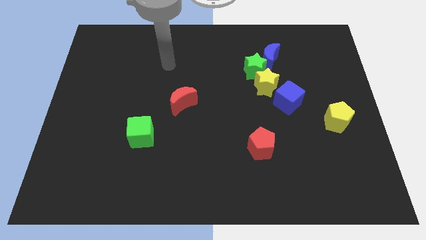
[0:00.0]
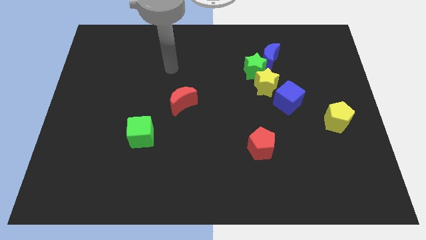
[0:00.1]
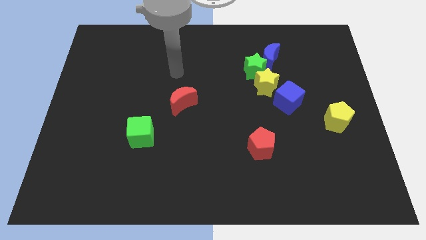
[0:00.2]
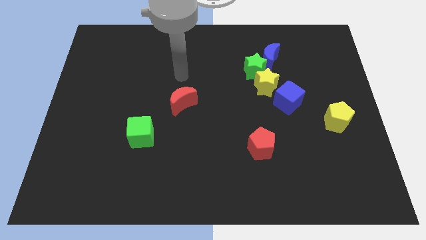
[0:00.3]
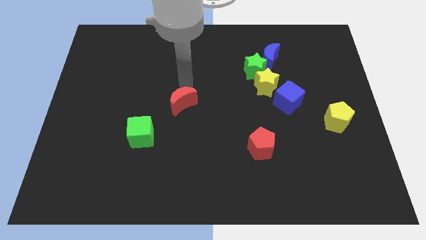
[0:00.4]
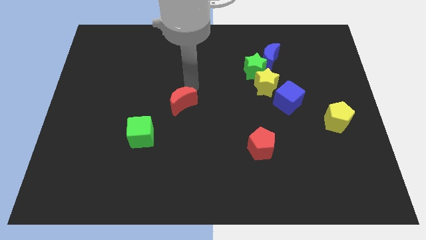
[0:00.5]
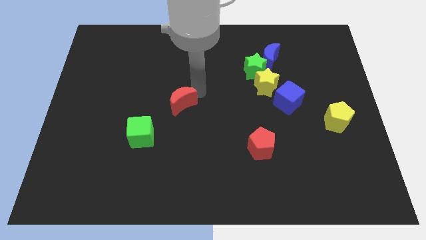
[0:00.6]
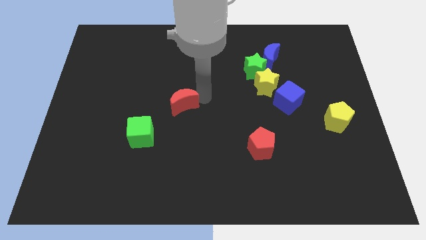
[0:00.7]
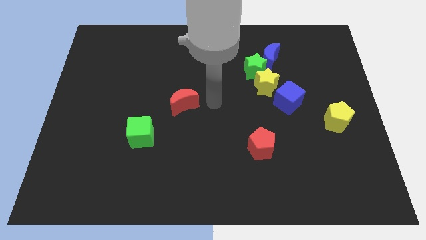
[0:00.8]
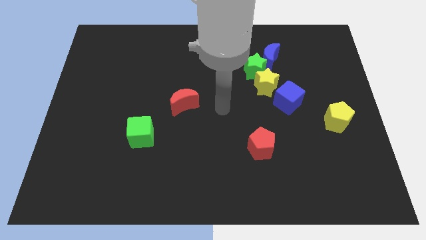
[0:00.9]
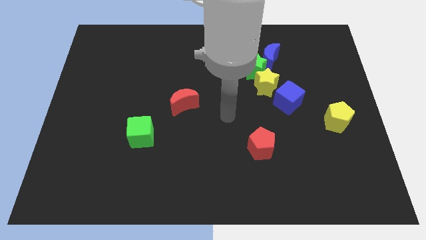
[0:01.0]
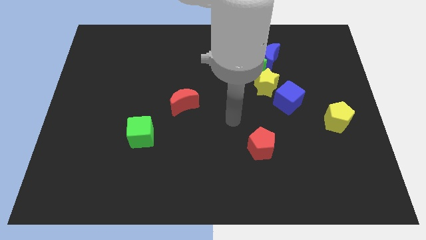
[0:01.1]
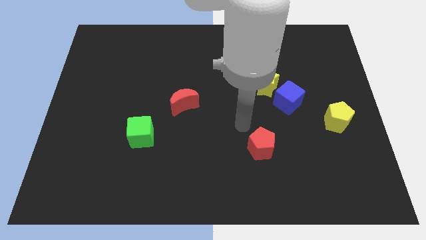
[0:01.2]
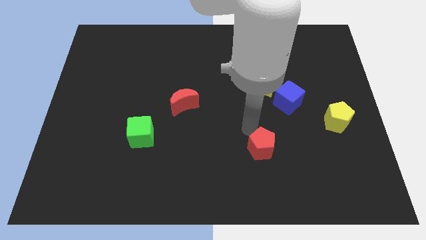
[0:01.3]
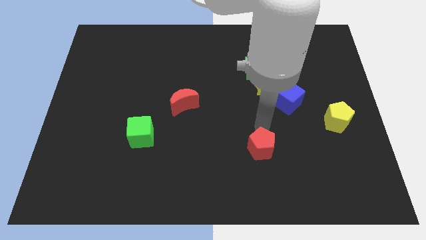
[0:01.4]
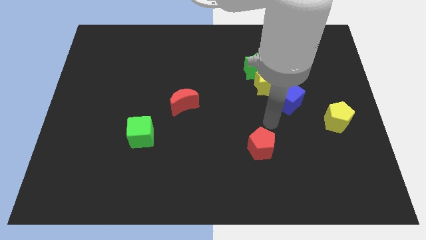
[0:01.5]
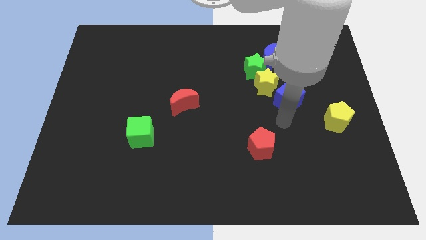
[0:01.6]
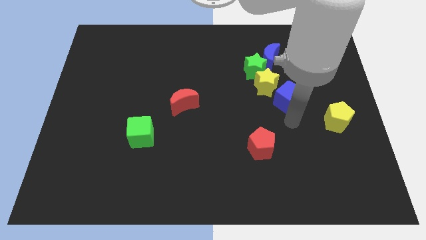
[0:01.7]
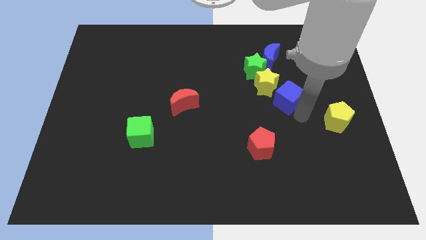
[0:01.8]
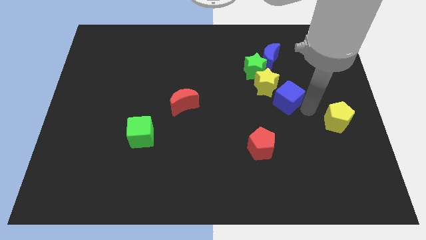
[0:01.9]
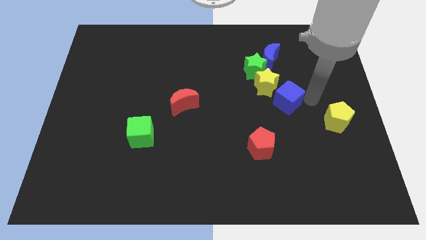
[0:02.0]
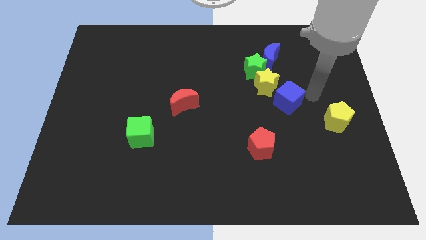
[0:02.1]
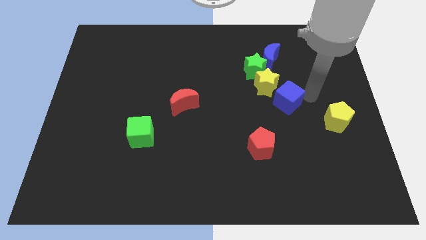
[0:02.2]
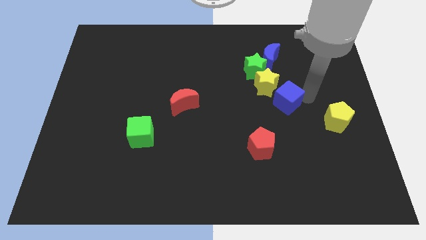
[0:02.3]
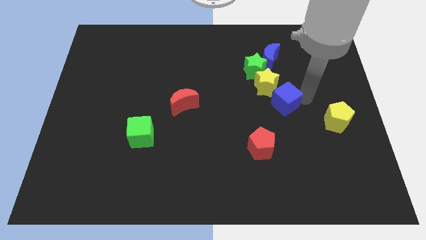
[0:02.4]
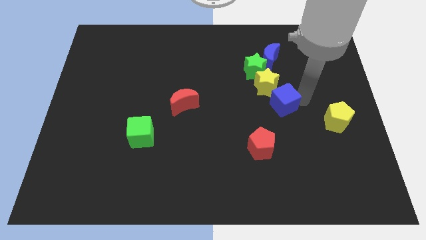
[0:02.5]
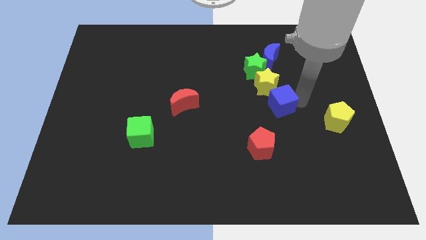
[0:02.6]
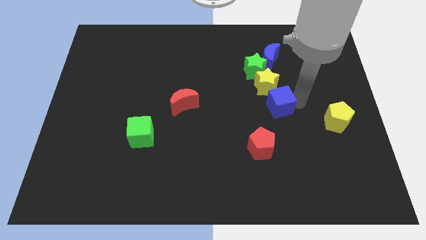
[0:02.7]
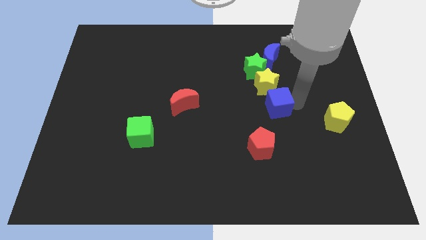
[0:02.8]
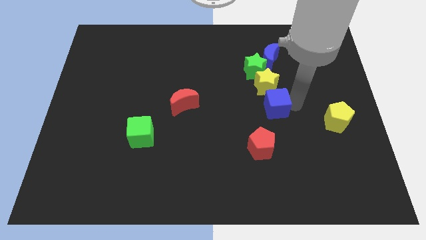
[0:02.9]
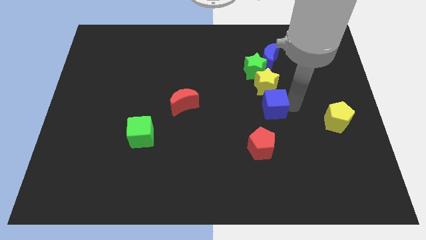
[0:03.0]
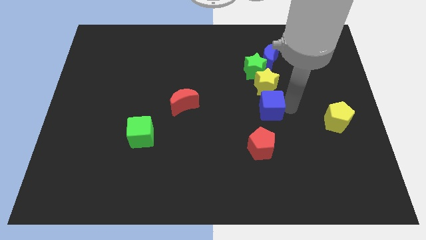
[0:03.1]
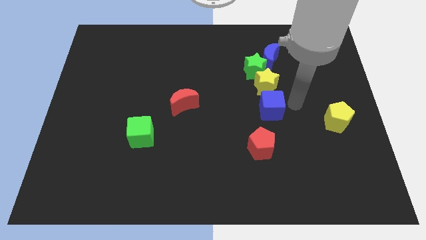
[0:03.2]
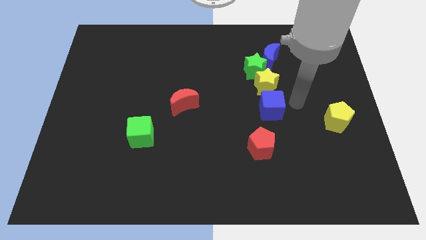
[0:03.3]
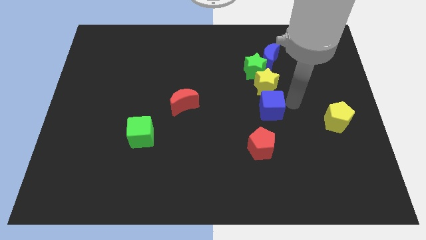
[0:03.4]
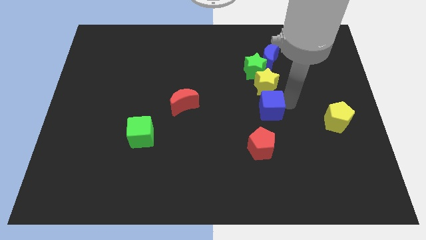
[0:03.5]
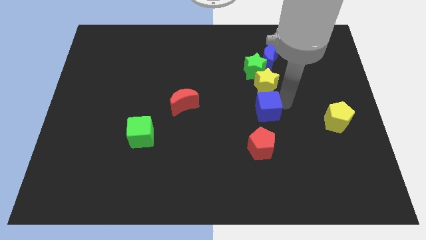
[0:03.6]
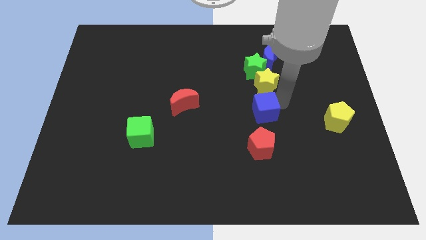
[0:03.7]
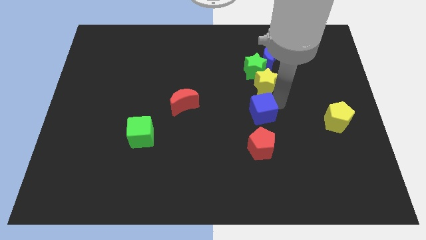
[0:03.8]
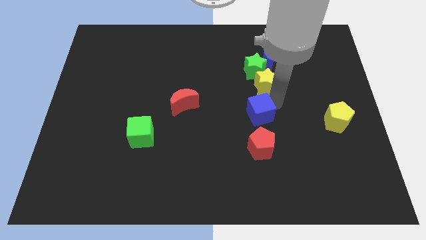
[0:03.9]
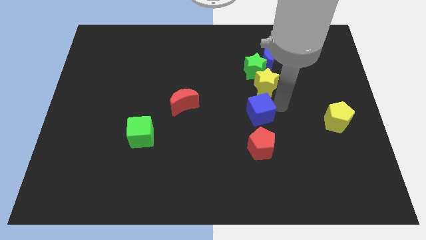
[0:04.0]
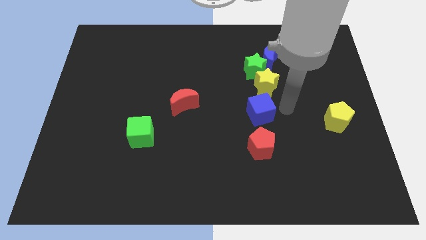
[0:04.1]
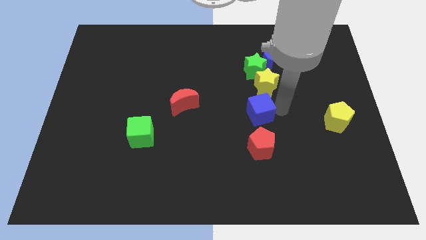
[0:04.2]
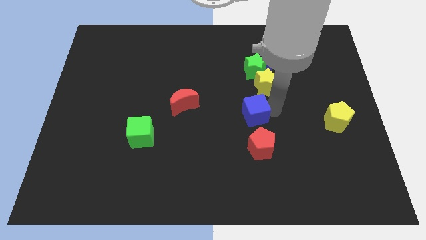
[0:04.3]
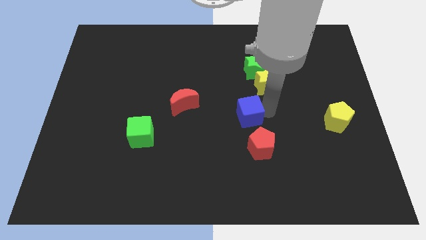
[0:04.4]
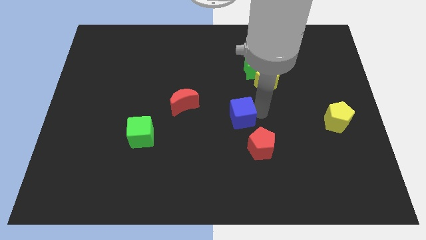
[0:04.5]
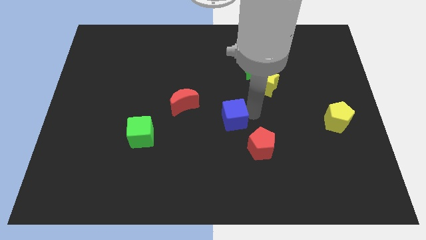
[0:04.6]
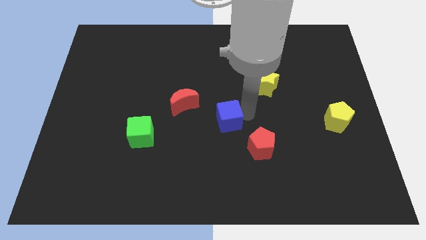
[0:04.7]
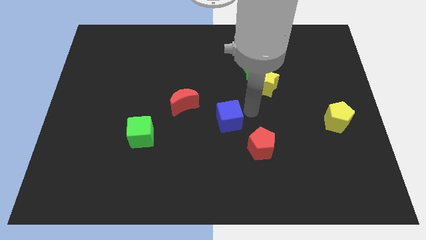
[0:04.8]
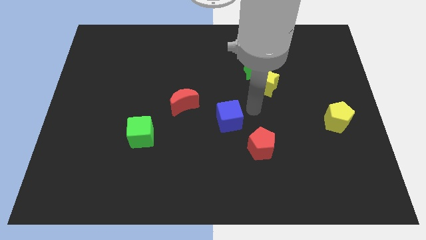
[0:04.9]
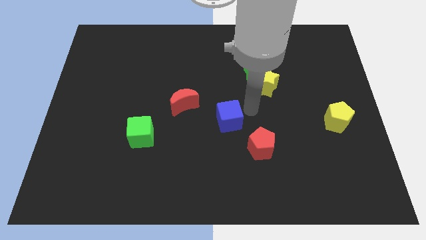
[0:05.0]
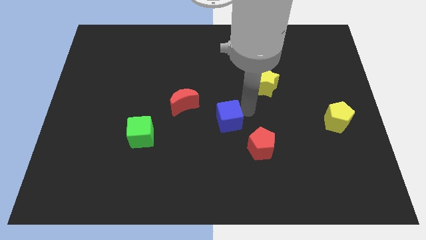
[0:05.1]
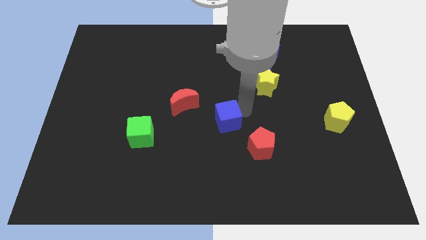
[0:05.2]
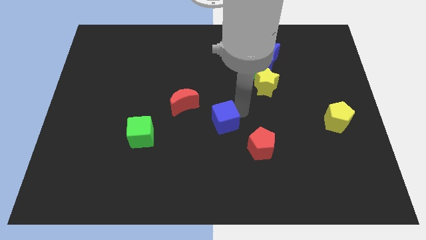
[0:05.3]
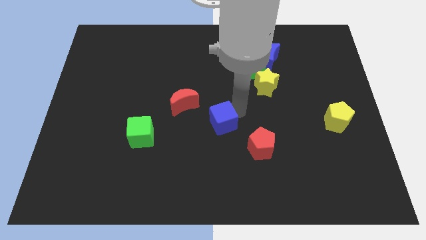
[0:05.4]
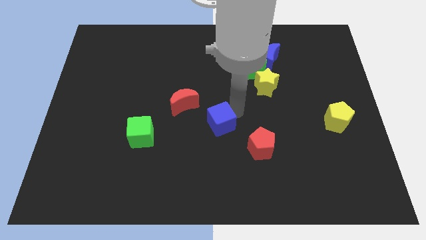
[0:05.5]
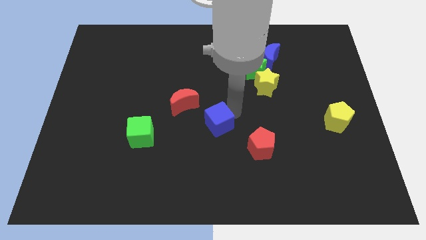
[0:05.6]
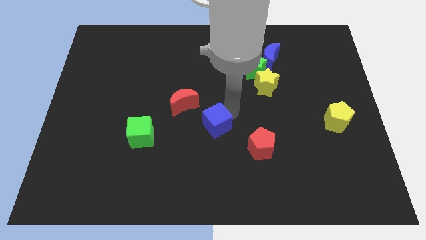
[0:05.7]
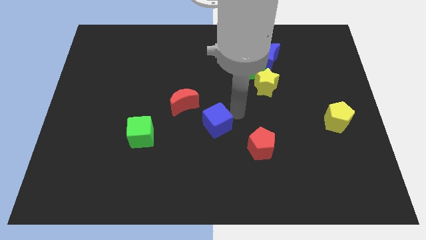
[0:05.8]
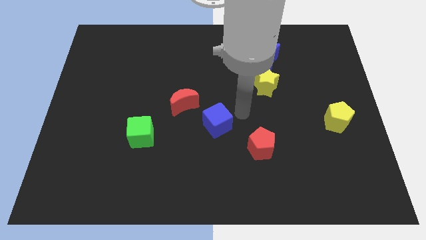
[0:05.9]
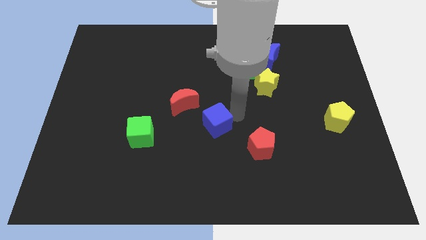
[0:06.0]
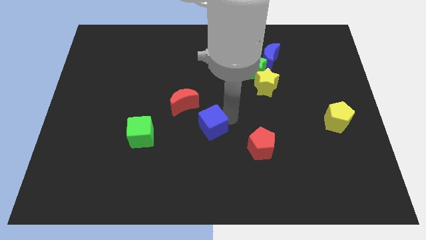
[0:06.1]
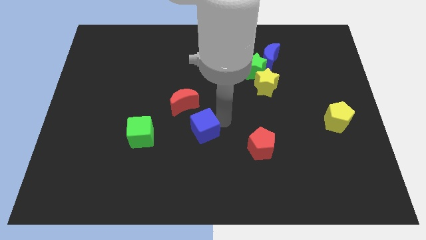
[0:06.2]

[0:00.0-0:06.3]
move the blue cube right of the green cube
